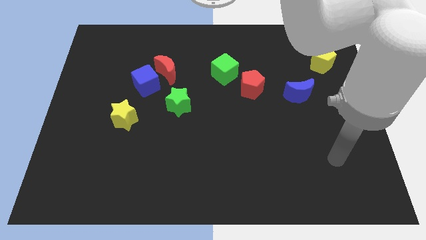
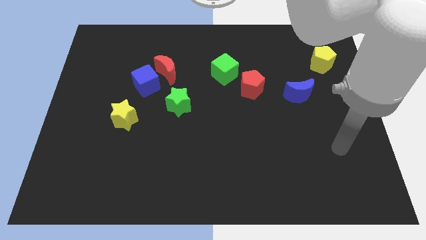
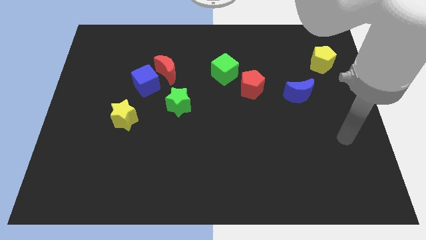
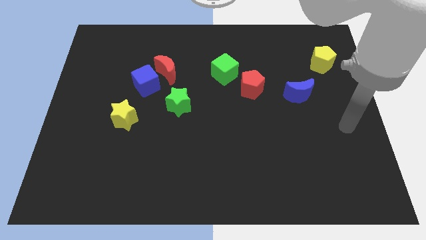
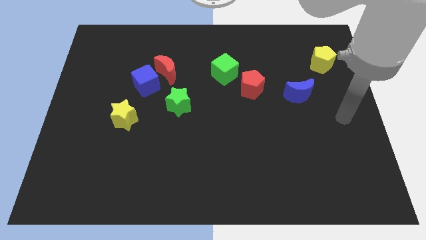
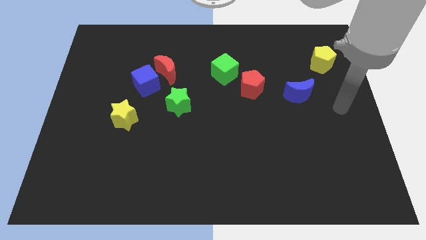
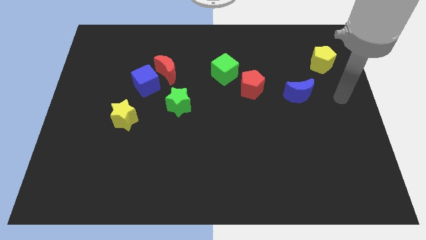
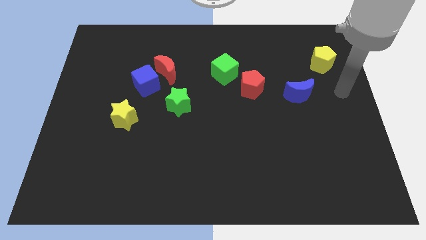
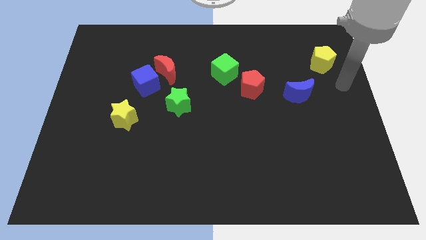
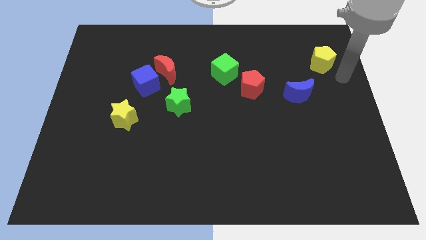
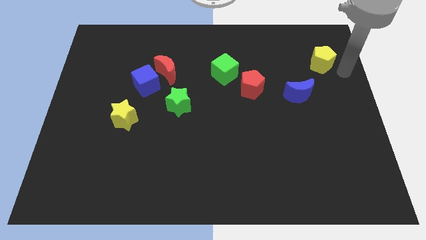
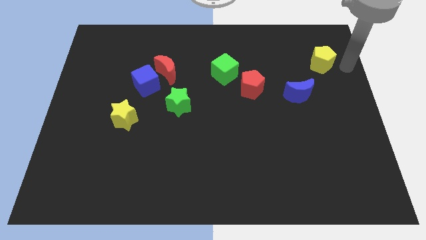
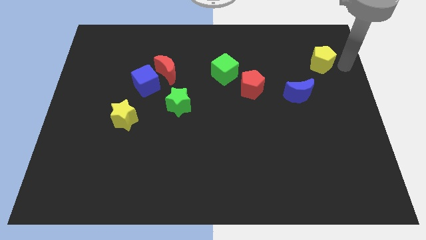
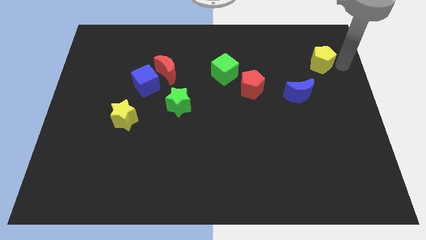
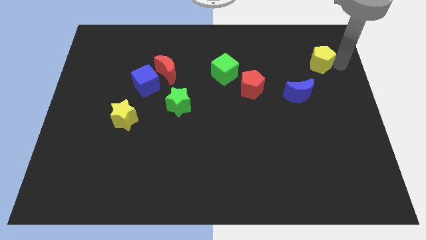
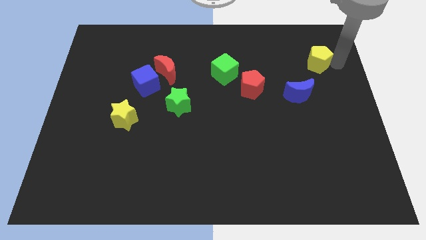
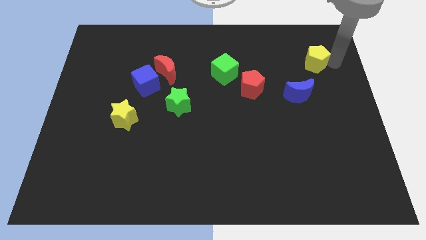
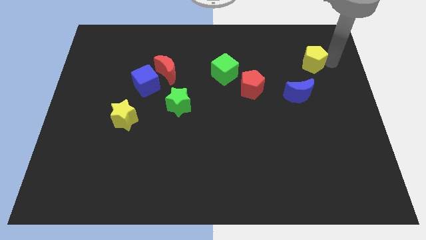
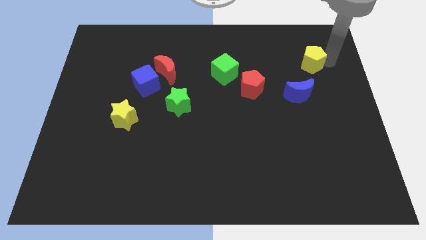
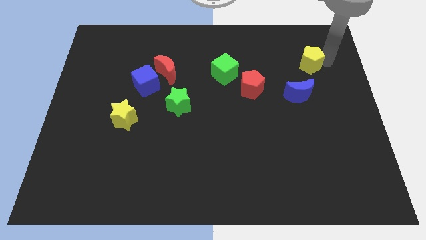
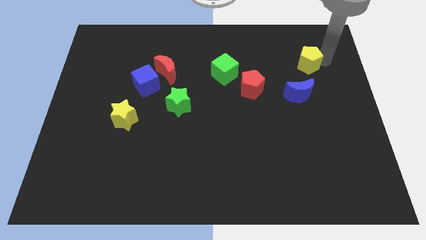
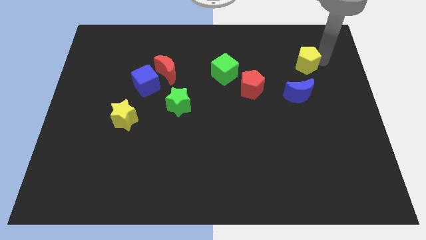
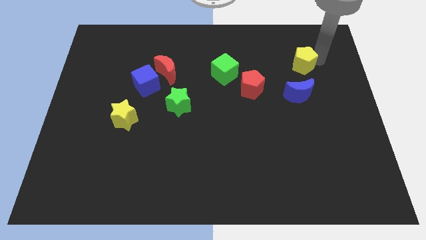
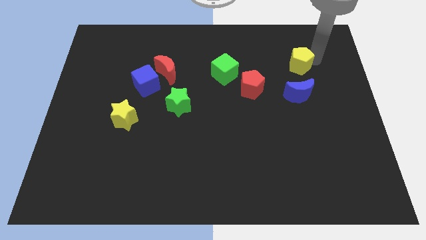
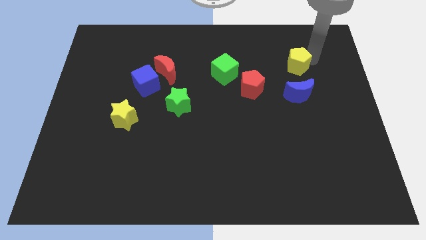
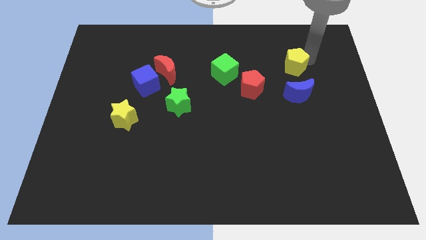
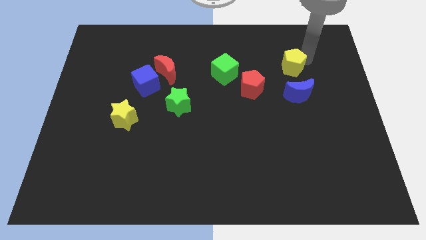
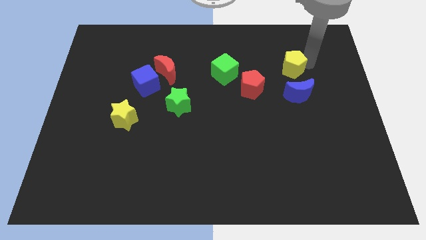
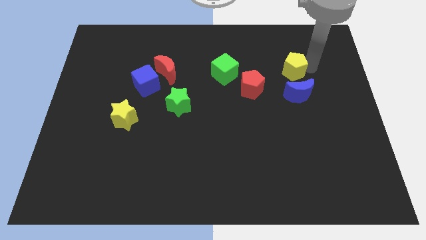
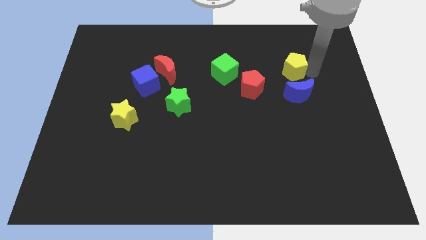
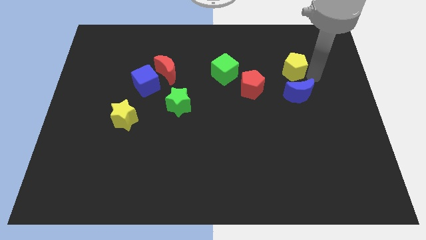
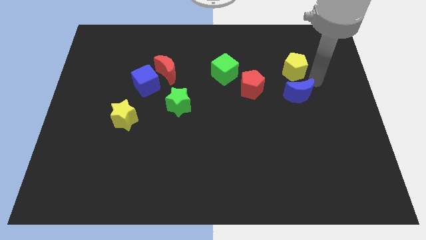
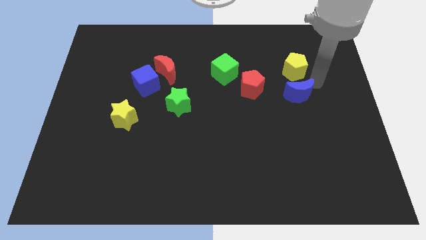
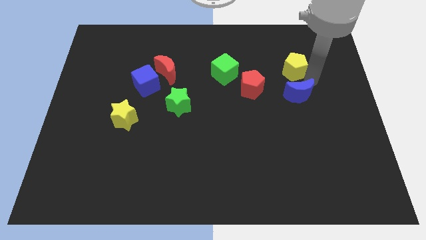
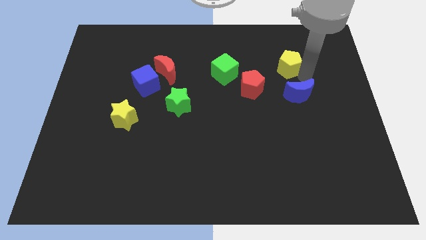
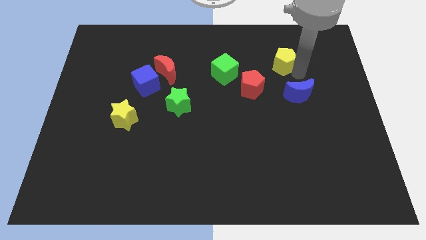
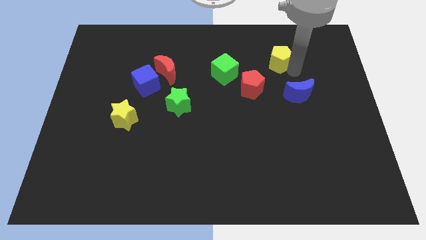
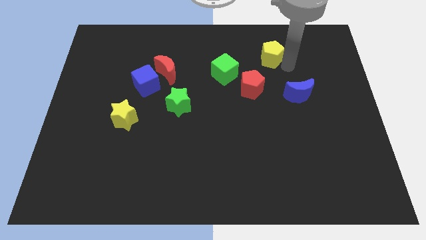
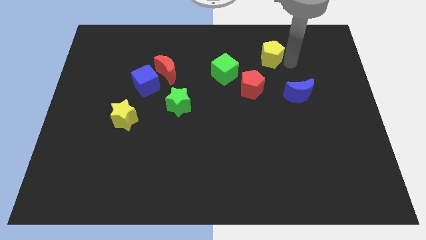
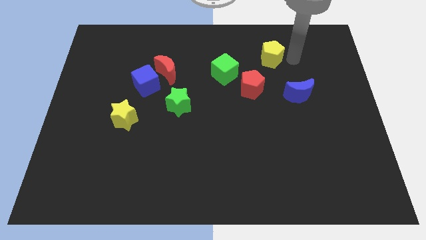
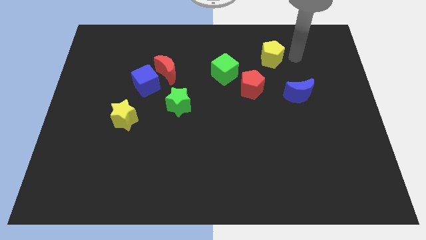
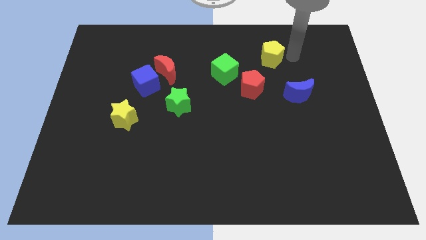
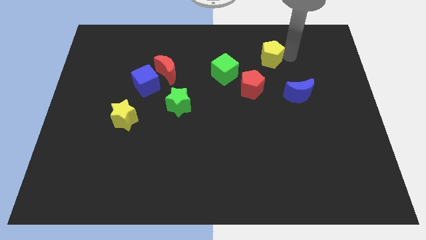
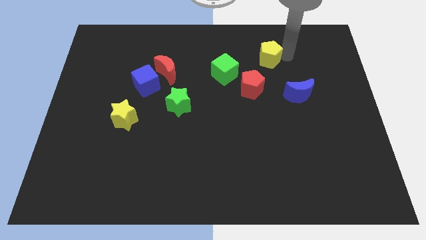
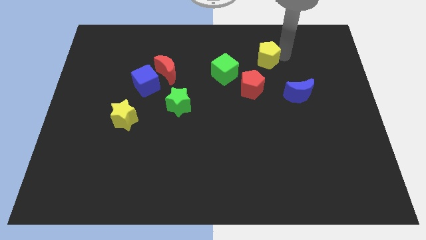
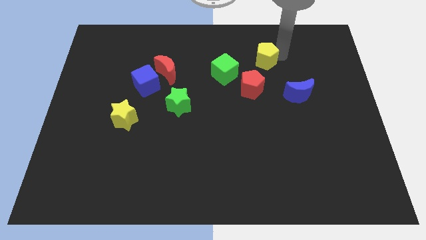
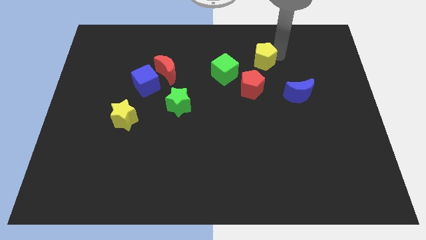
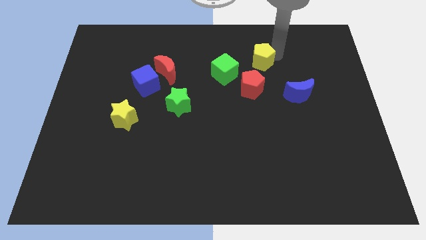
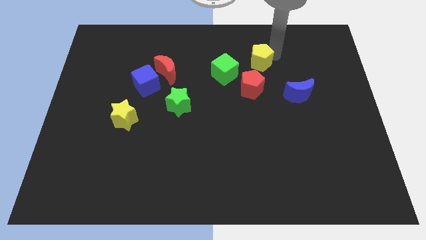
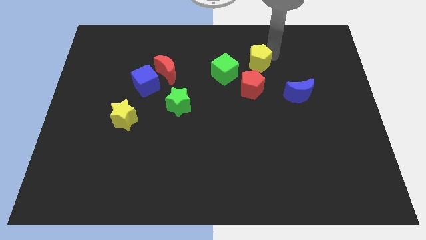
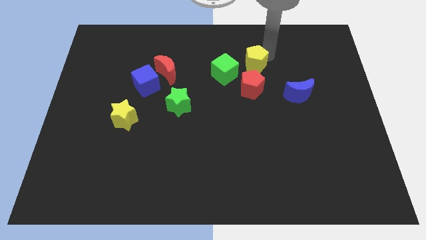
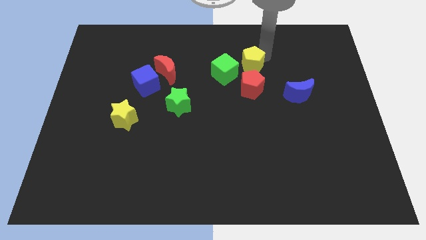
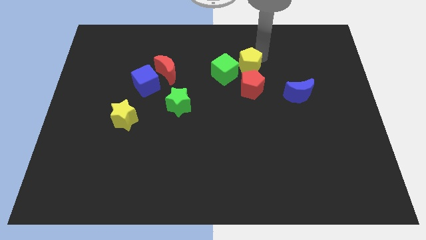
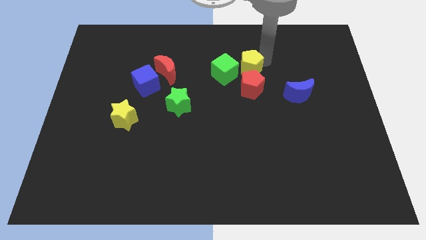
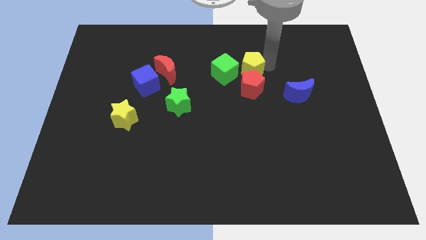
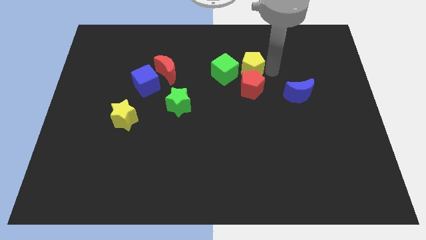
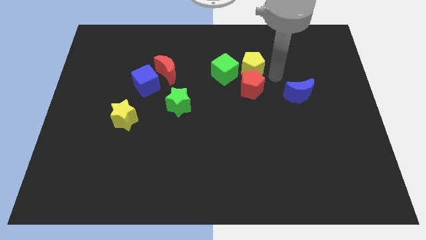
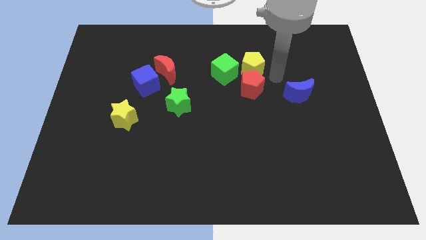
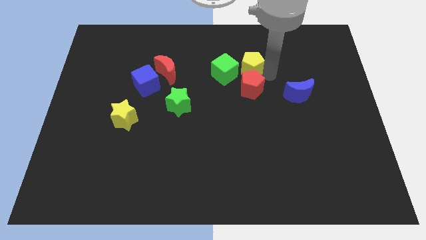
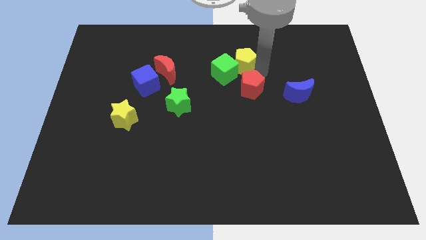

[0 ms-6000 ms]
move the yellow pentagon left

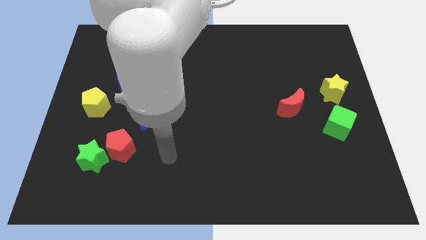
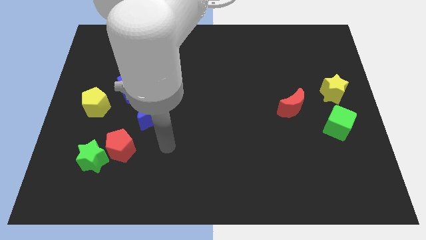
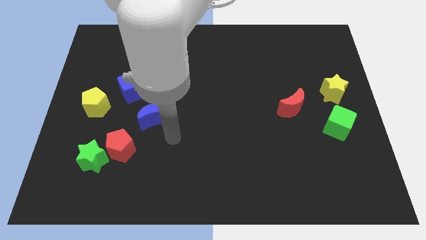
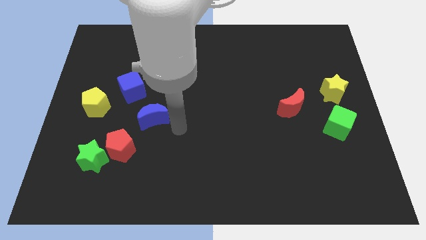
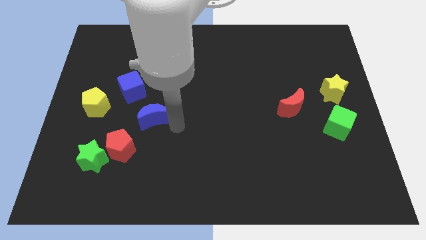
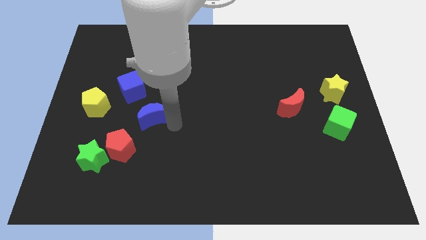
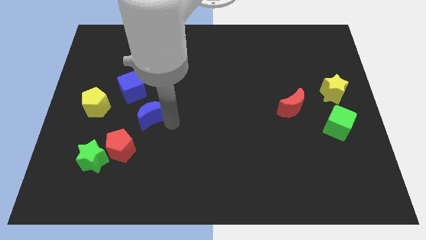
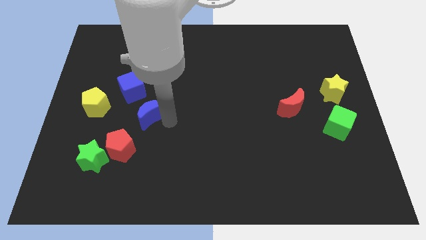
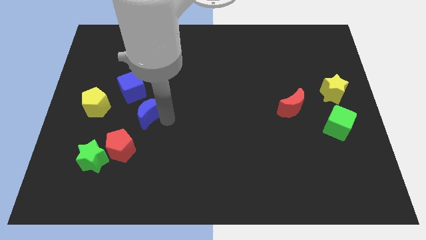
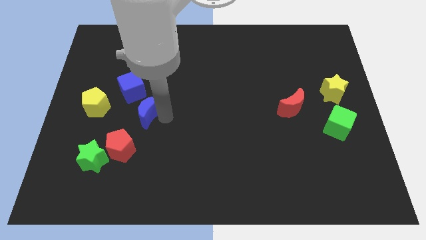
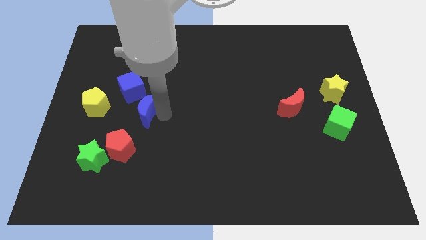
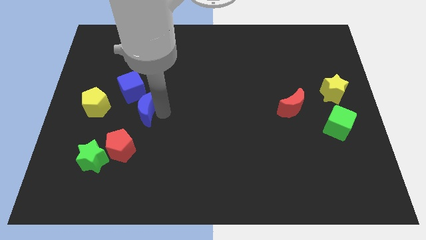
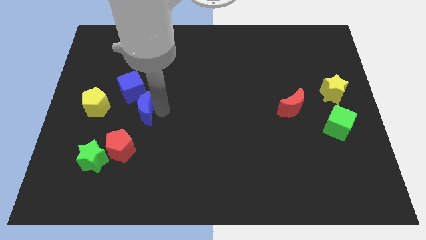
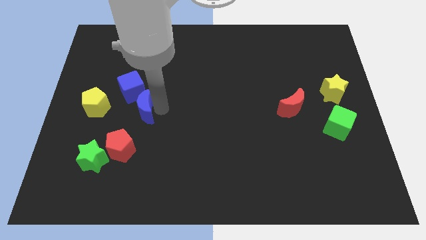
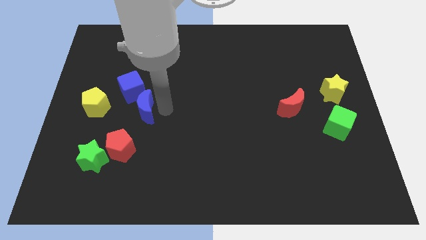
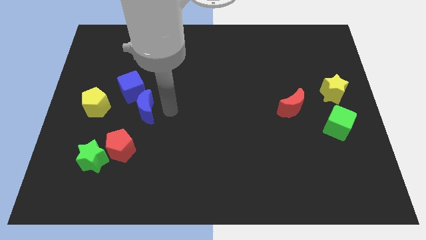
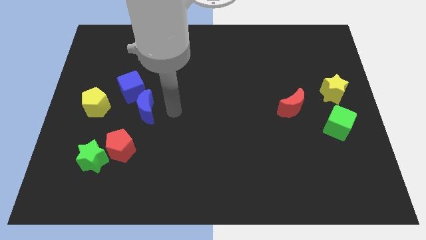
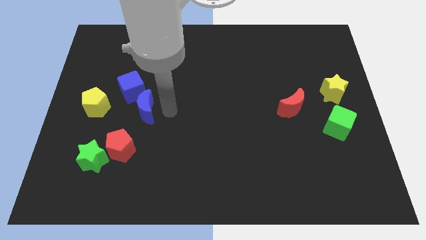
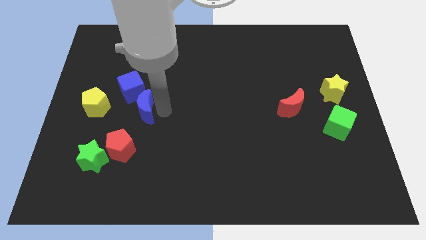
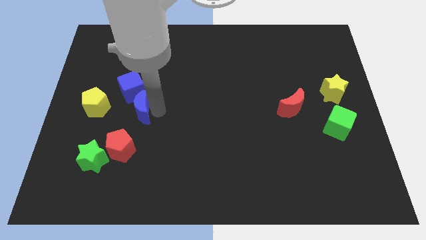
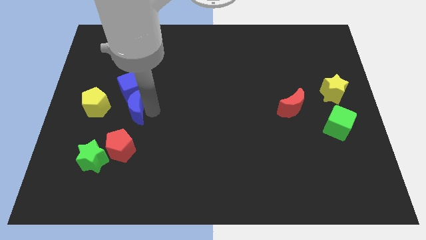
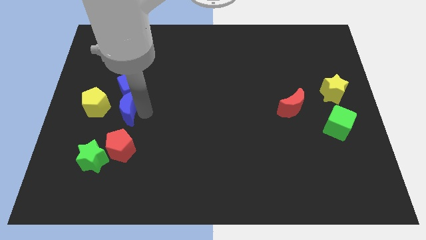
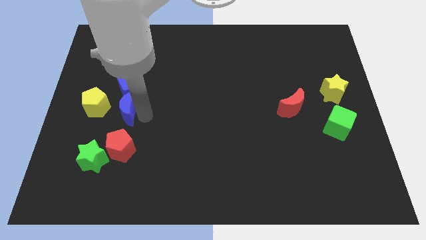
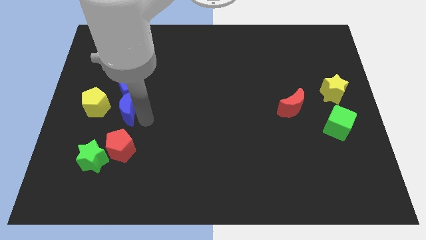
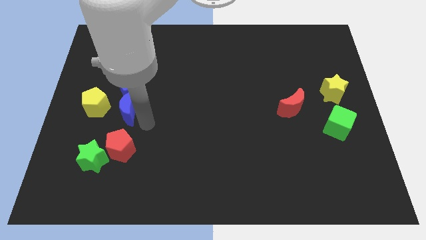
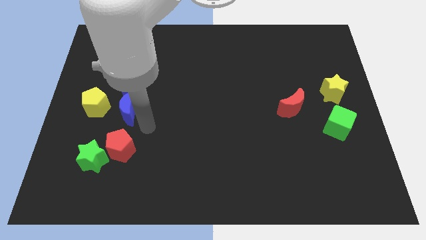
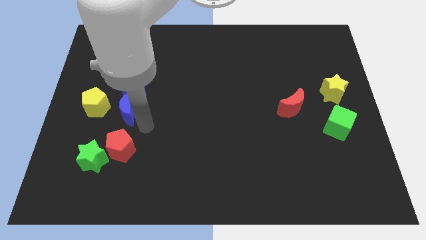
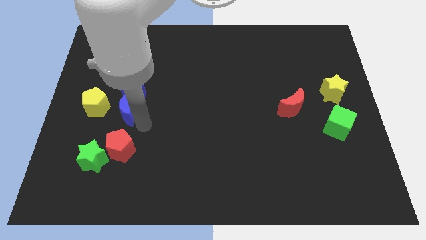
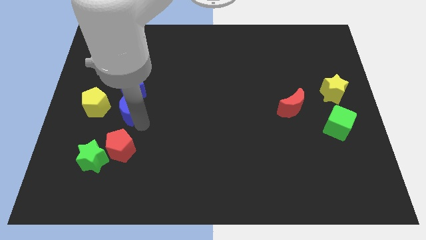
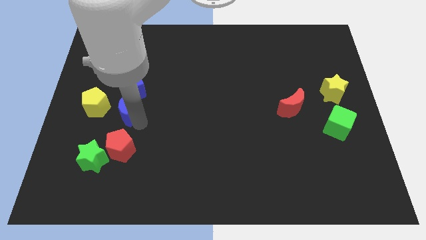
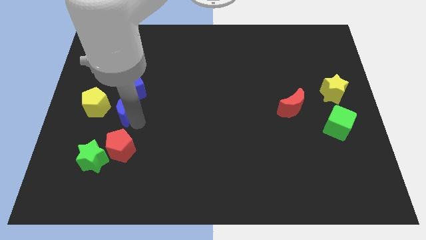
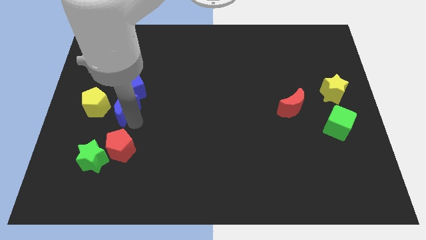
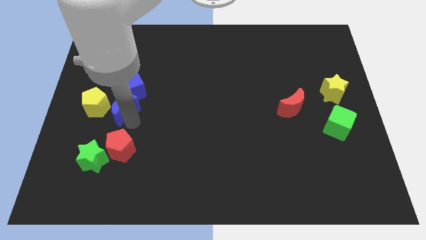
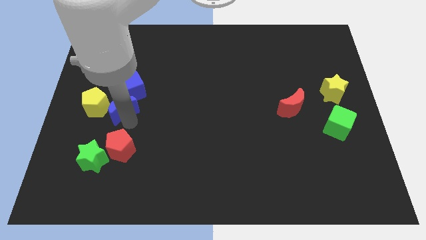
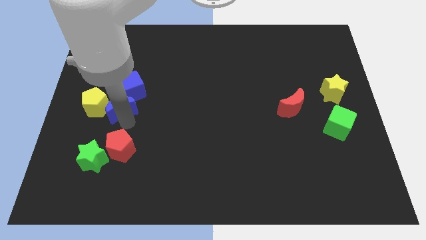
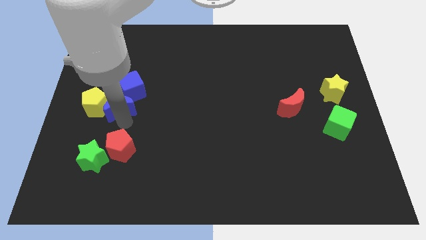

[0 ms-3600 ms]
slide the blue moon slightly upwards and left
